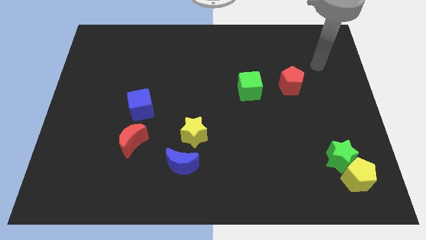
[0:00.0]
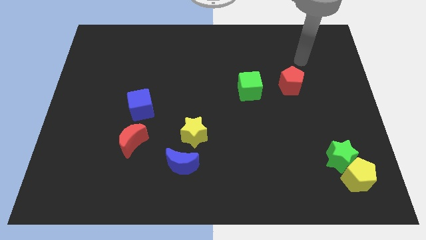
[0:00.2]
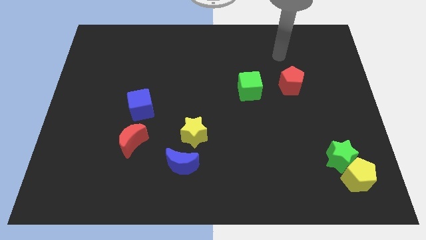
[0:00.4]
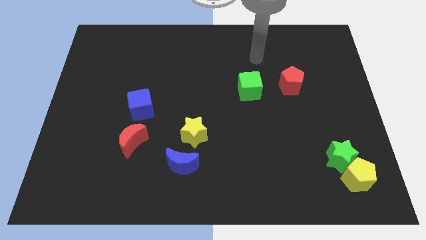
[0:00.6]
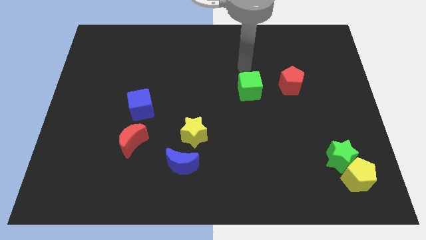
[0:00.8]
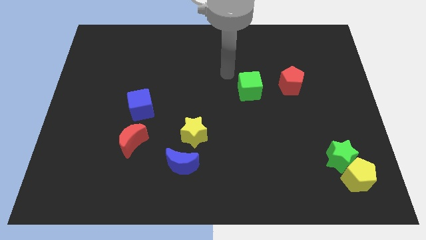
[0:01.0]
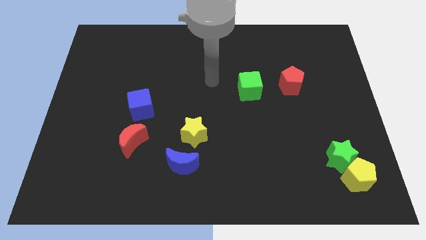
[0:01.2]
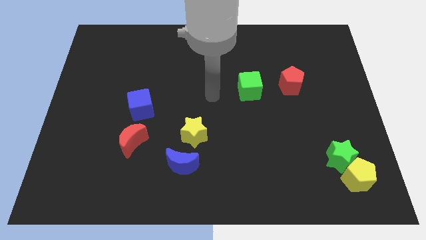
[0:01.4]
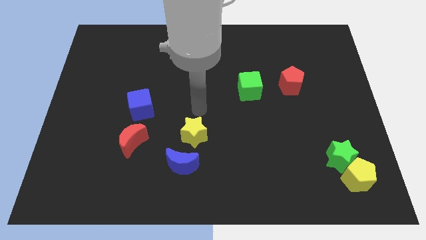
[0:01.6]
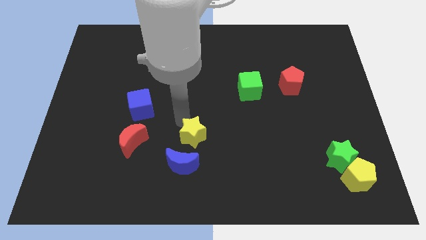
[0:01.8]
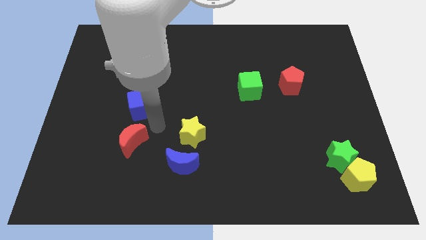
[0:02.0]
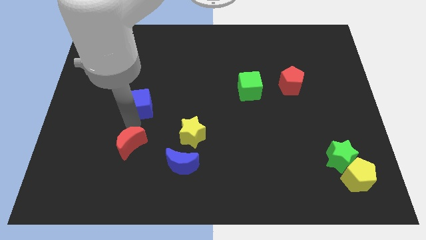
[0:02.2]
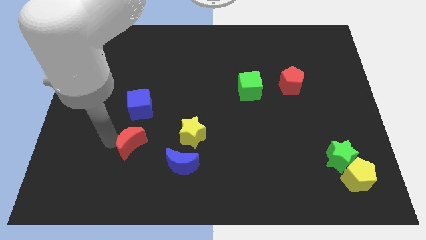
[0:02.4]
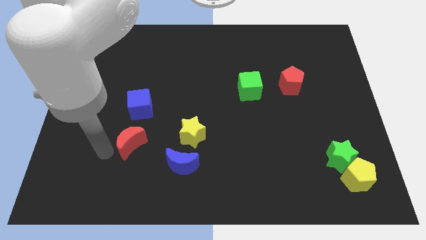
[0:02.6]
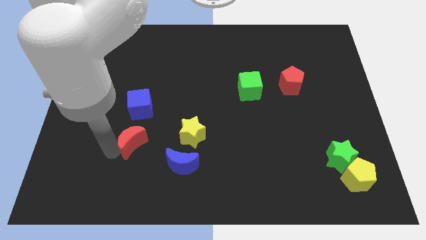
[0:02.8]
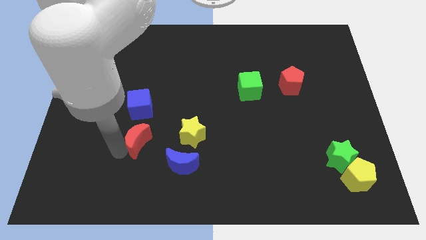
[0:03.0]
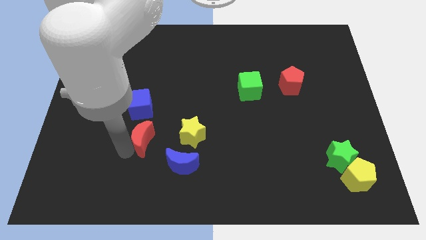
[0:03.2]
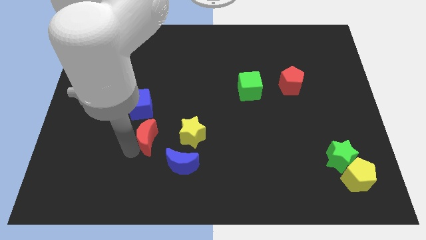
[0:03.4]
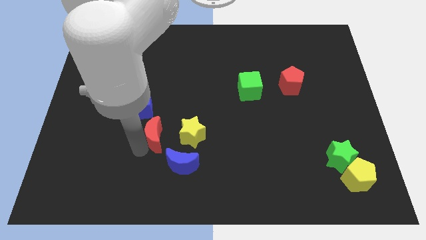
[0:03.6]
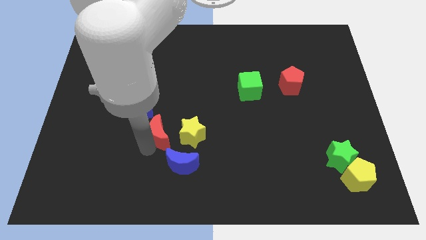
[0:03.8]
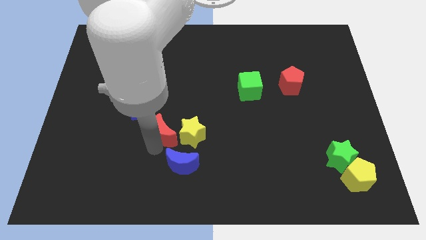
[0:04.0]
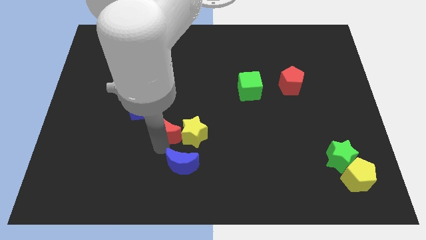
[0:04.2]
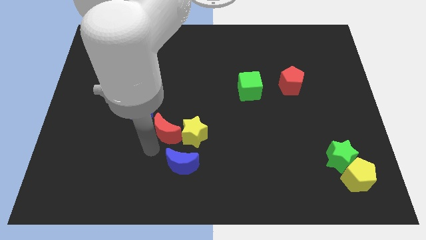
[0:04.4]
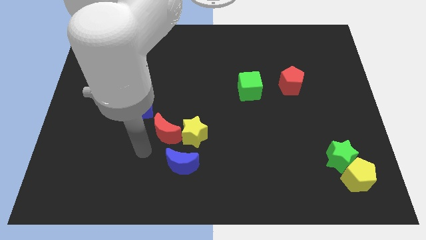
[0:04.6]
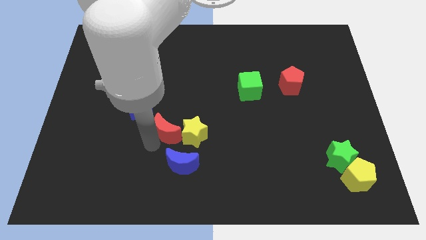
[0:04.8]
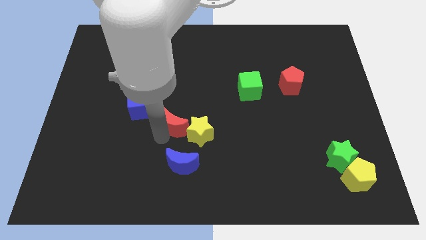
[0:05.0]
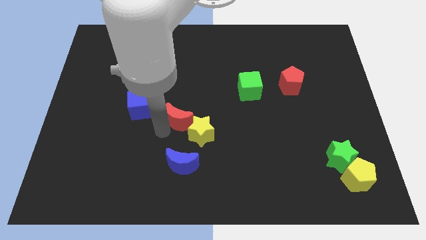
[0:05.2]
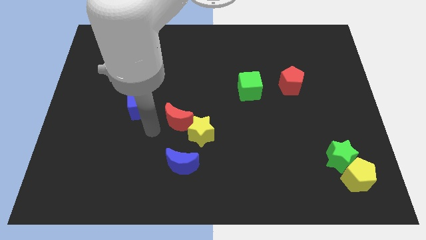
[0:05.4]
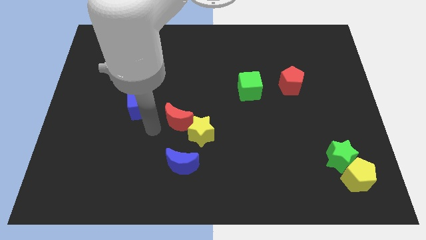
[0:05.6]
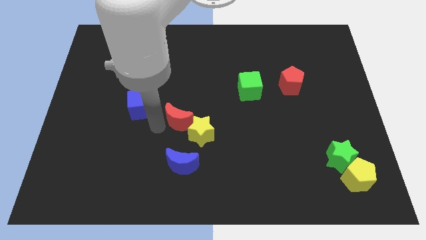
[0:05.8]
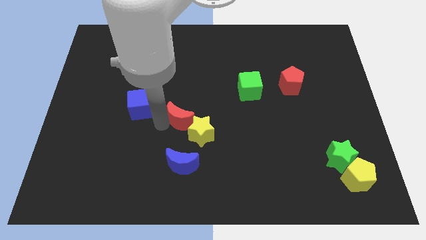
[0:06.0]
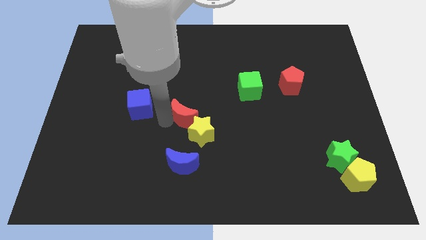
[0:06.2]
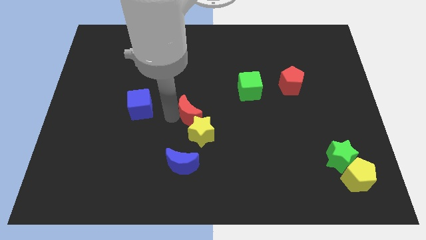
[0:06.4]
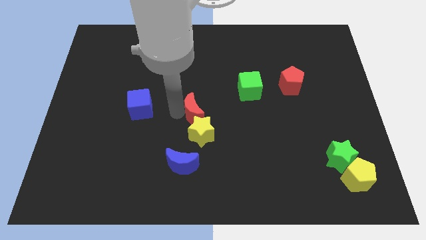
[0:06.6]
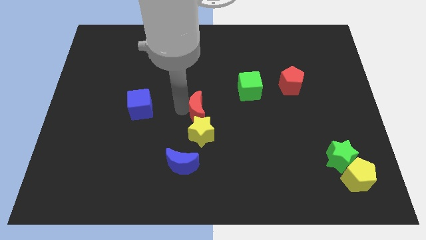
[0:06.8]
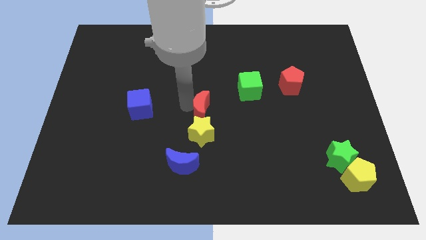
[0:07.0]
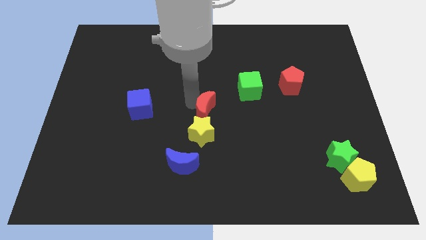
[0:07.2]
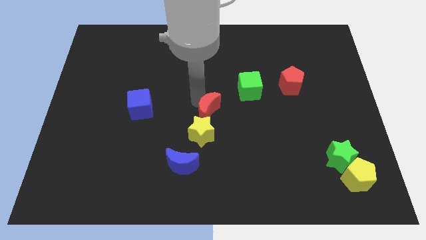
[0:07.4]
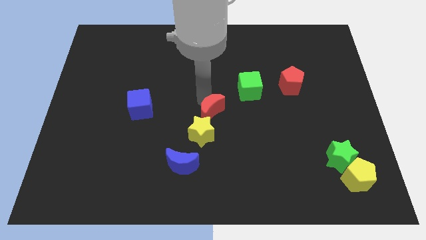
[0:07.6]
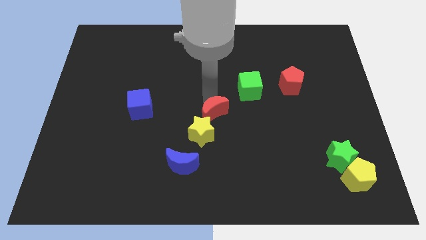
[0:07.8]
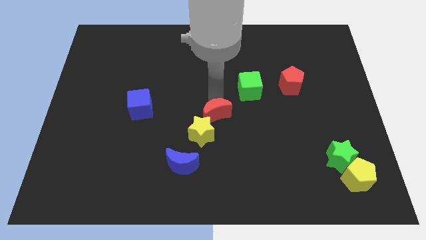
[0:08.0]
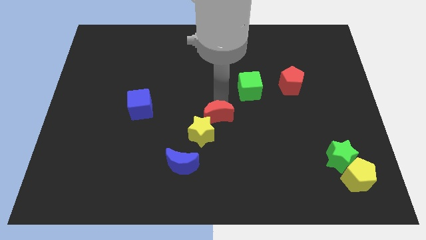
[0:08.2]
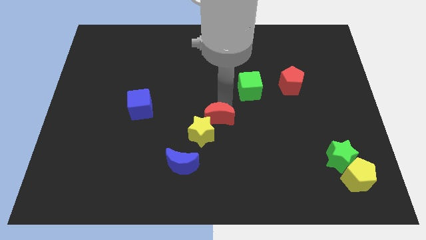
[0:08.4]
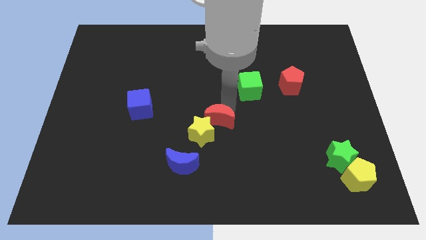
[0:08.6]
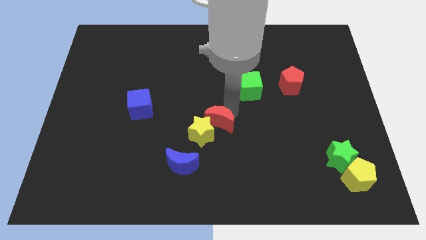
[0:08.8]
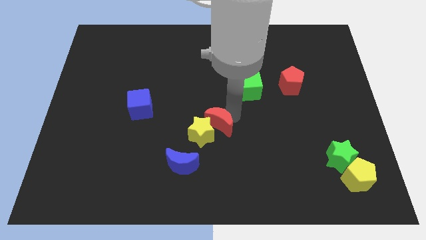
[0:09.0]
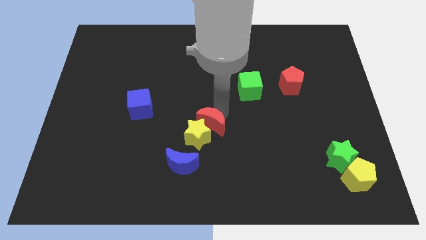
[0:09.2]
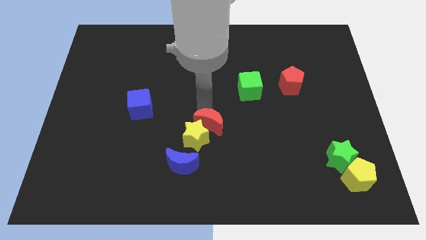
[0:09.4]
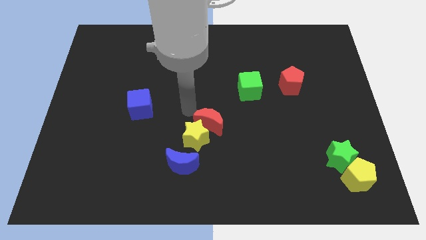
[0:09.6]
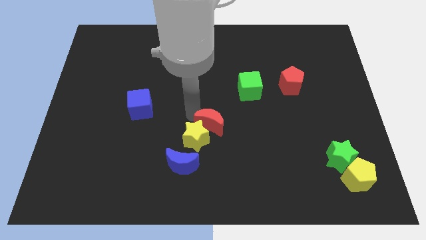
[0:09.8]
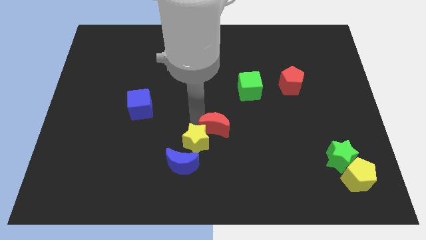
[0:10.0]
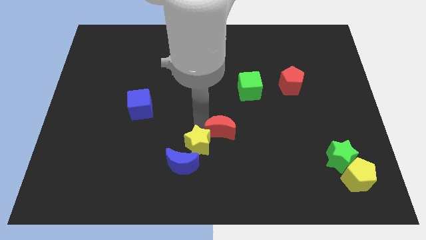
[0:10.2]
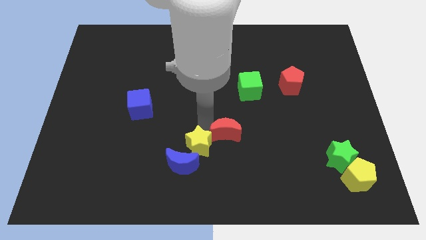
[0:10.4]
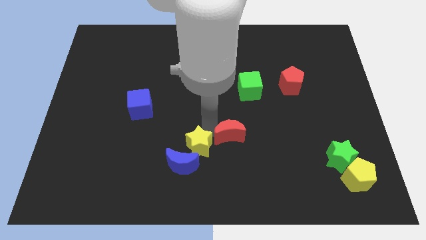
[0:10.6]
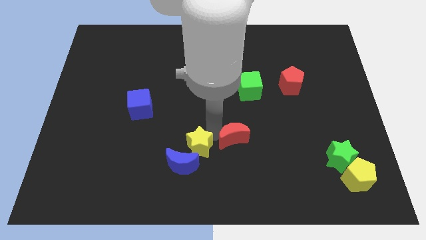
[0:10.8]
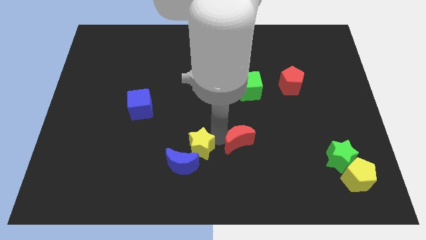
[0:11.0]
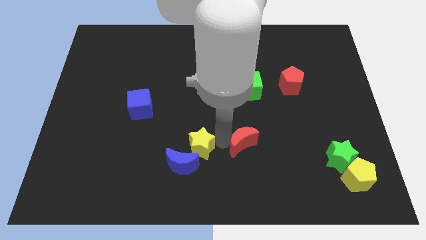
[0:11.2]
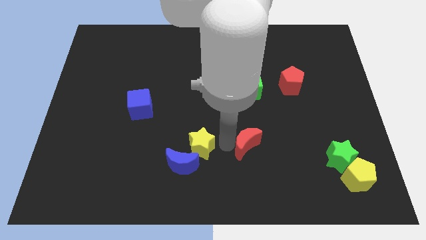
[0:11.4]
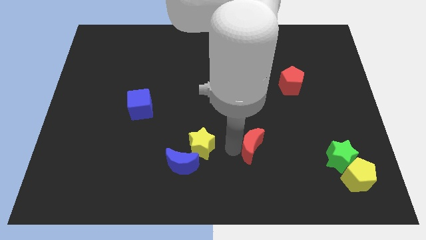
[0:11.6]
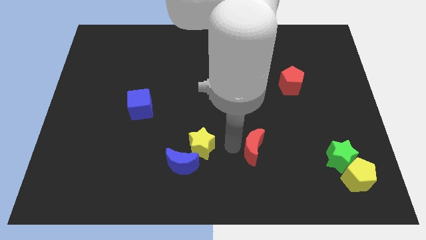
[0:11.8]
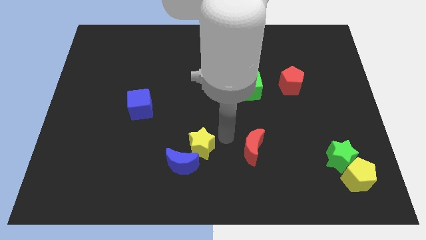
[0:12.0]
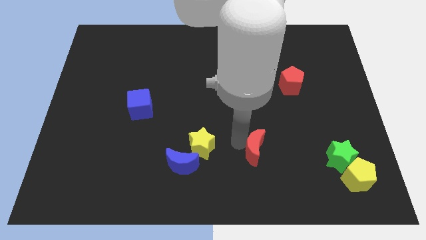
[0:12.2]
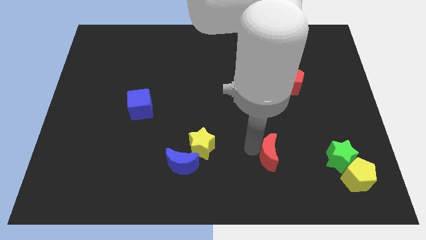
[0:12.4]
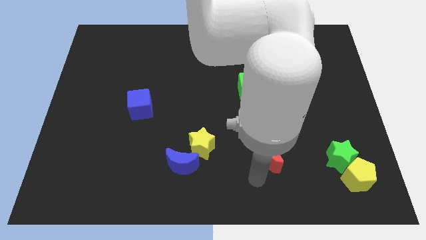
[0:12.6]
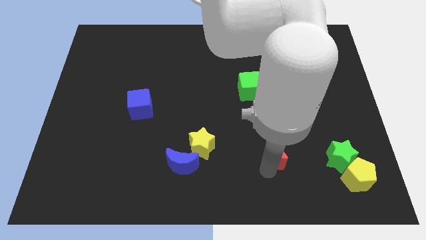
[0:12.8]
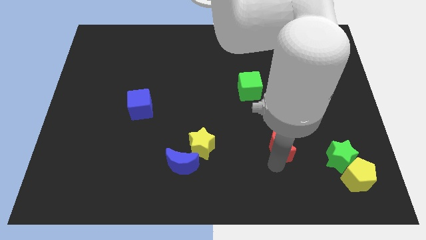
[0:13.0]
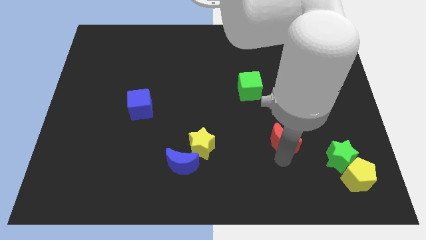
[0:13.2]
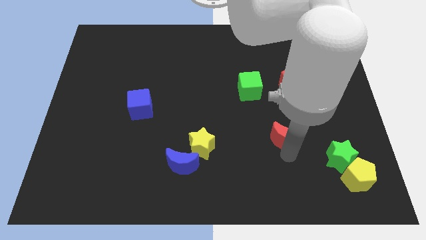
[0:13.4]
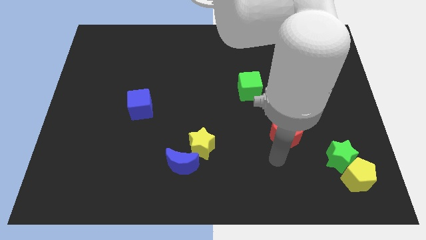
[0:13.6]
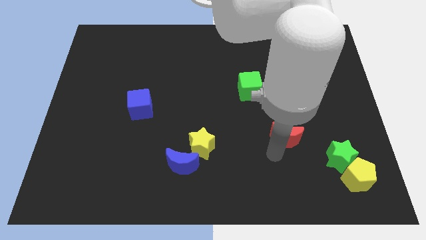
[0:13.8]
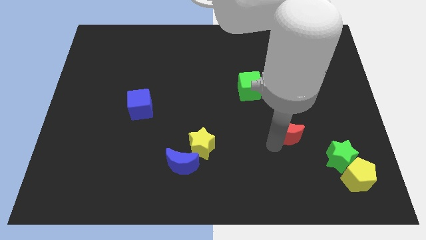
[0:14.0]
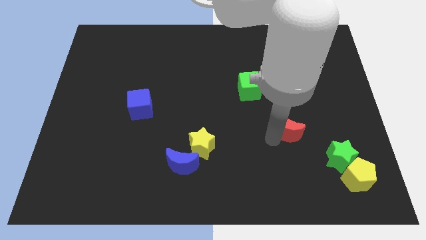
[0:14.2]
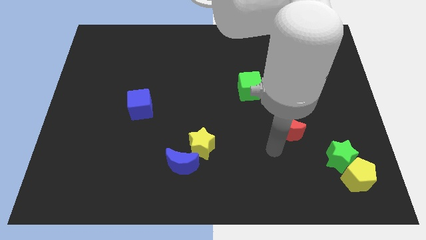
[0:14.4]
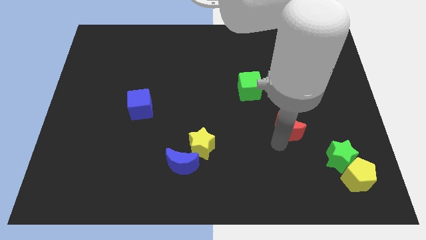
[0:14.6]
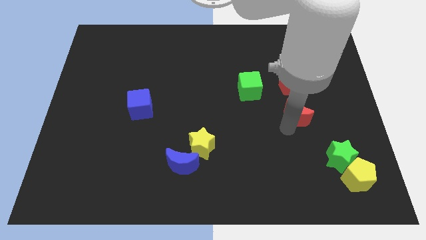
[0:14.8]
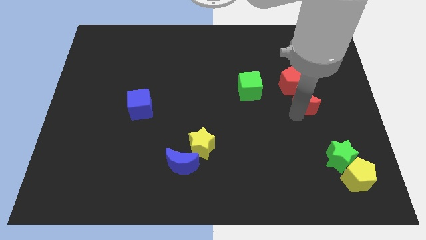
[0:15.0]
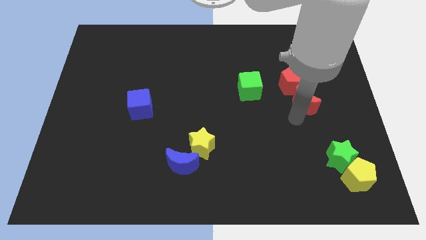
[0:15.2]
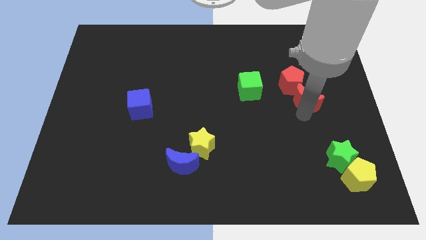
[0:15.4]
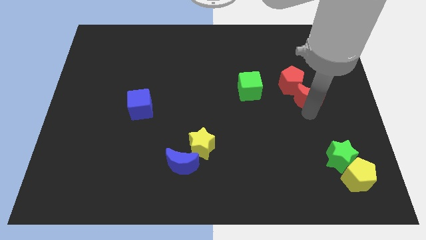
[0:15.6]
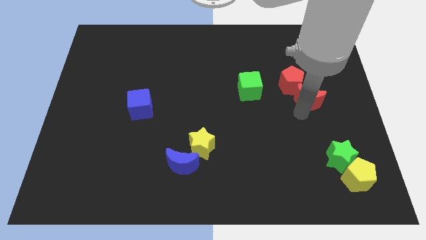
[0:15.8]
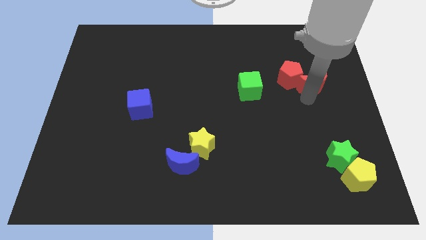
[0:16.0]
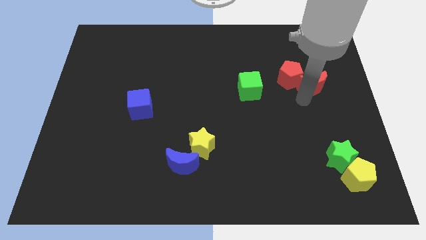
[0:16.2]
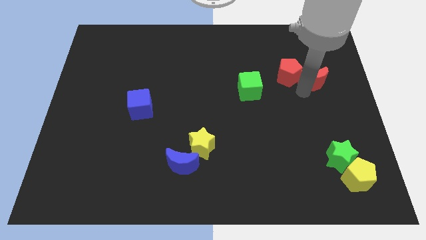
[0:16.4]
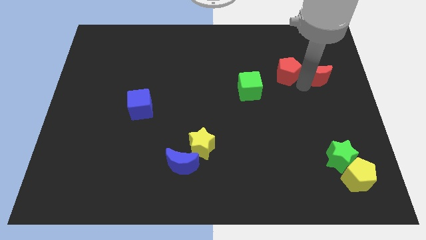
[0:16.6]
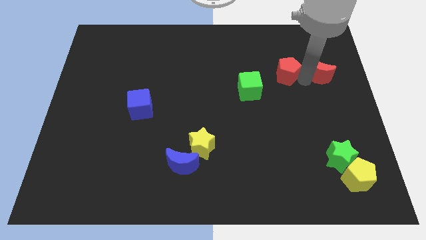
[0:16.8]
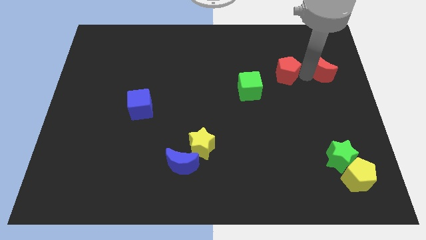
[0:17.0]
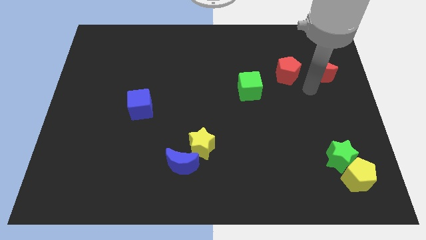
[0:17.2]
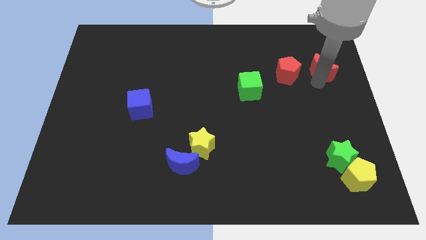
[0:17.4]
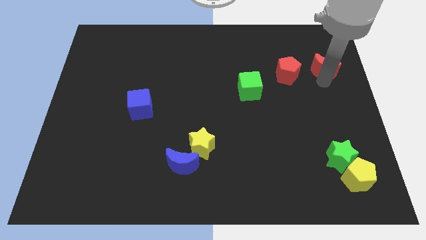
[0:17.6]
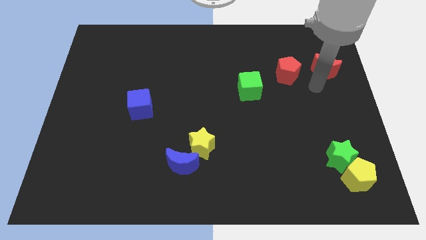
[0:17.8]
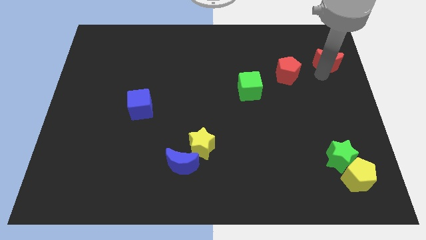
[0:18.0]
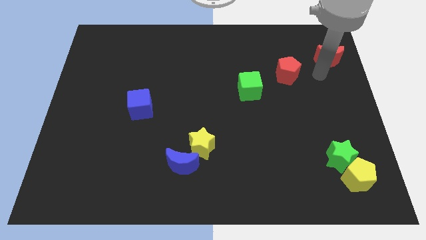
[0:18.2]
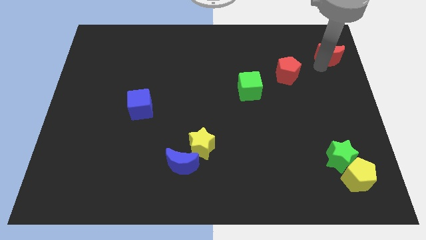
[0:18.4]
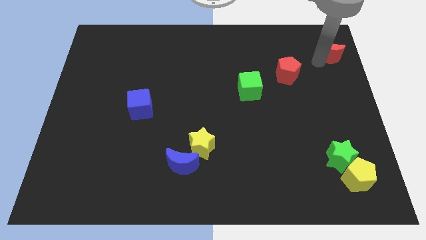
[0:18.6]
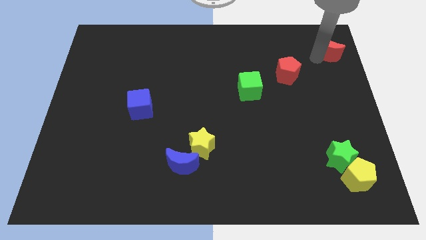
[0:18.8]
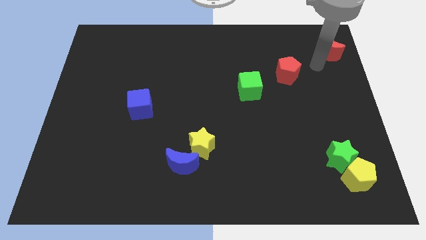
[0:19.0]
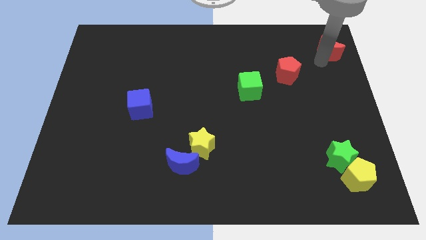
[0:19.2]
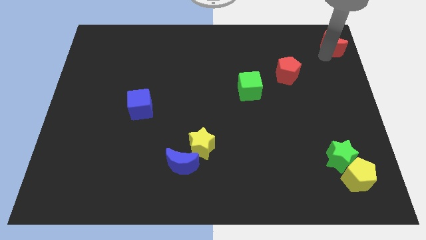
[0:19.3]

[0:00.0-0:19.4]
move the red moon to the top right corner
